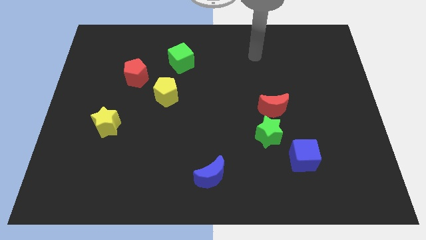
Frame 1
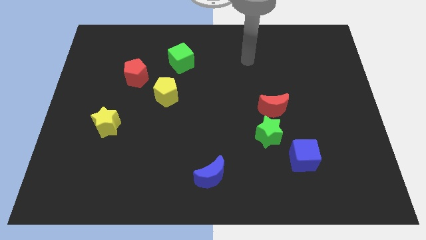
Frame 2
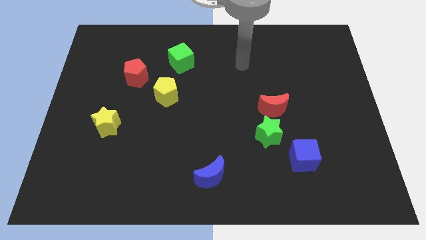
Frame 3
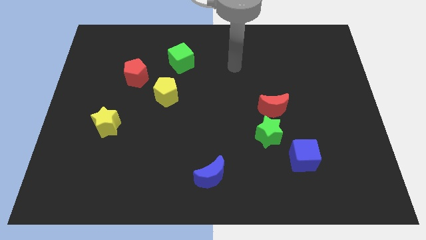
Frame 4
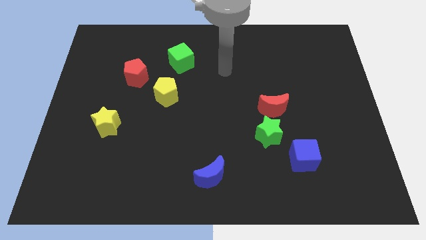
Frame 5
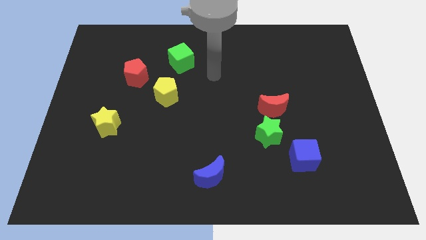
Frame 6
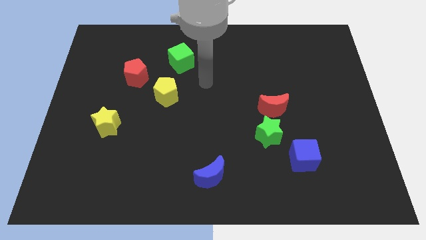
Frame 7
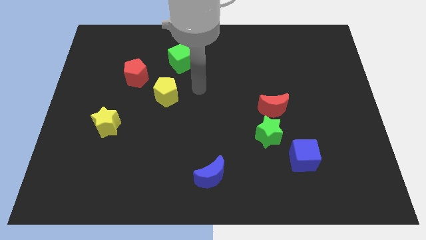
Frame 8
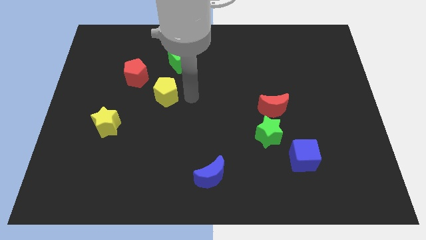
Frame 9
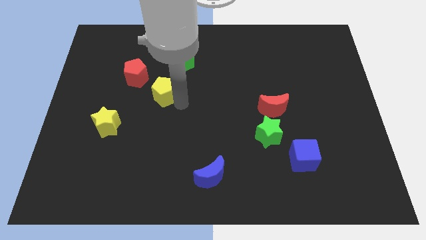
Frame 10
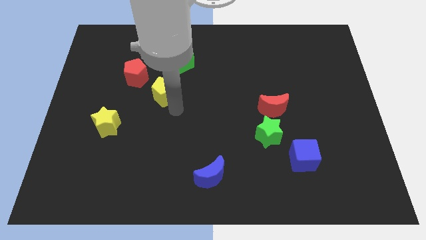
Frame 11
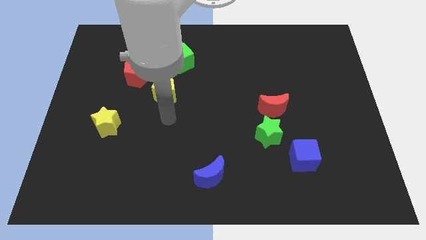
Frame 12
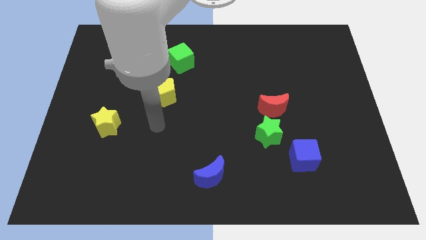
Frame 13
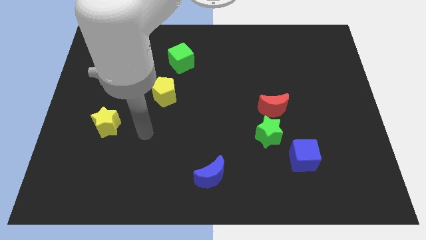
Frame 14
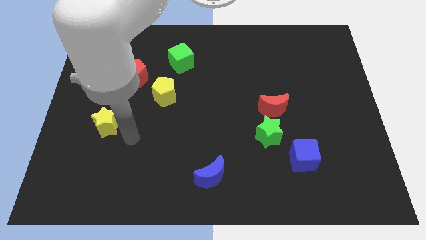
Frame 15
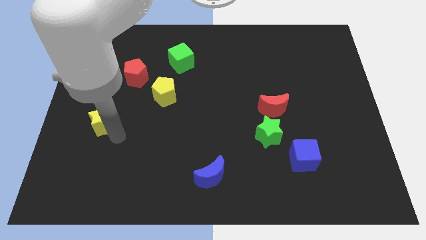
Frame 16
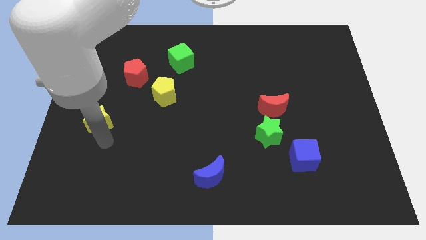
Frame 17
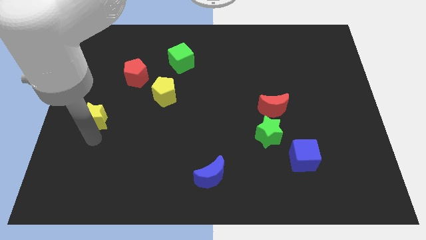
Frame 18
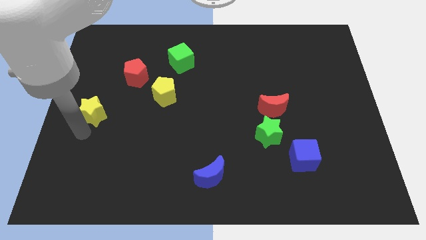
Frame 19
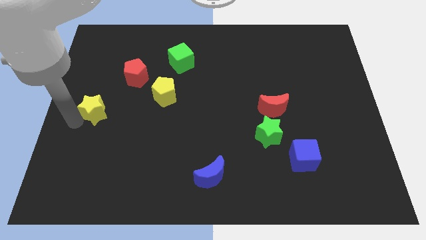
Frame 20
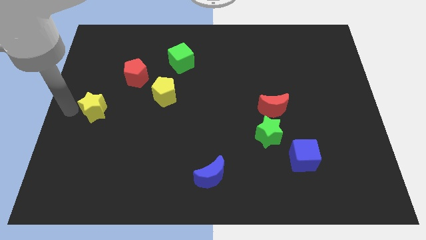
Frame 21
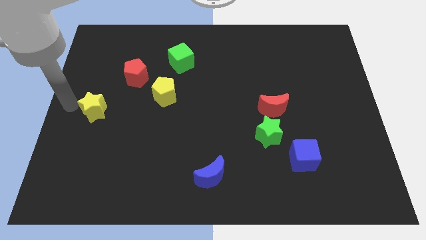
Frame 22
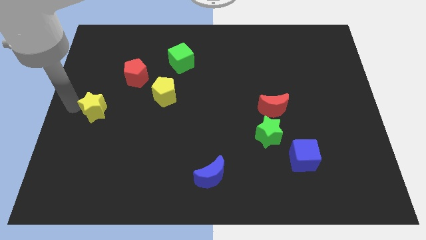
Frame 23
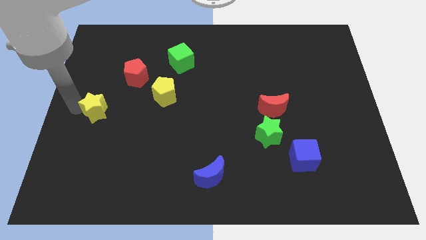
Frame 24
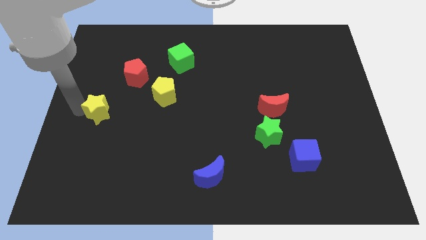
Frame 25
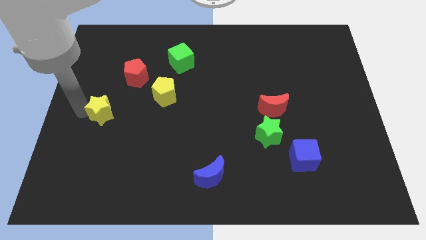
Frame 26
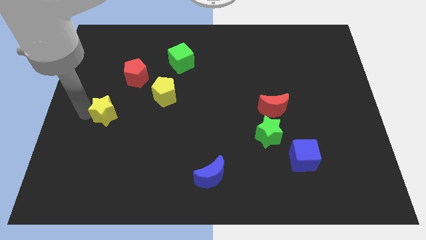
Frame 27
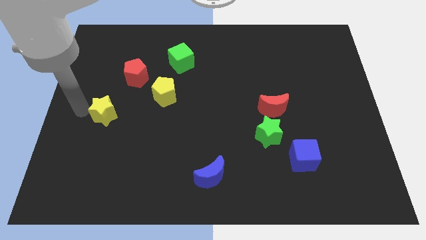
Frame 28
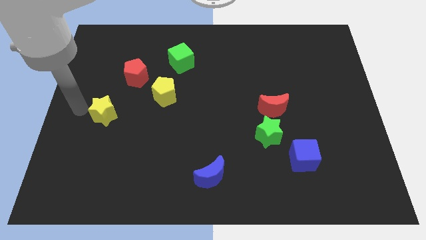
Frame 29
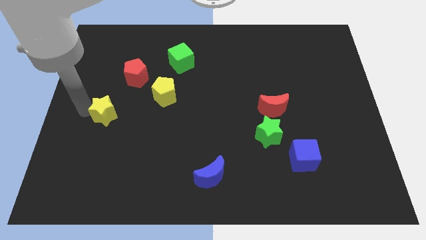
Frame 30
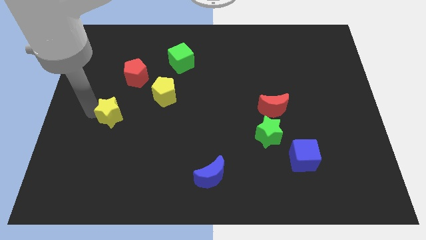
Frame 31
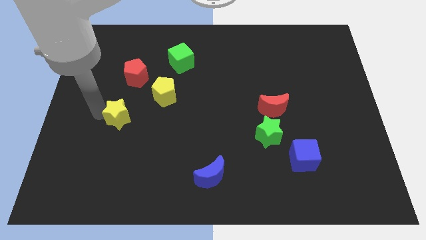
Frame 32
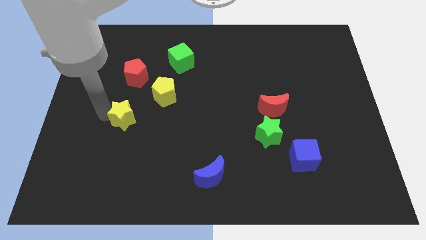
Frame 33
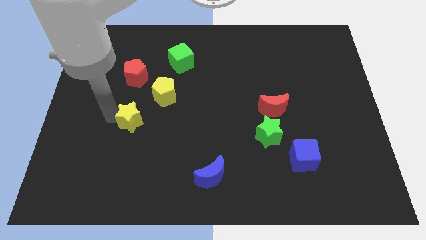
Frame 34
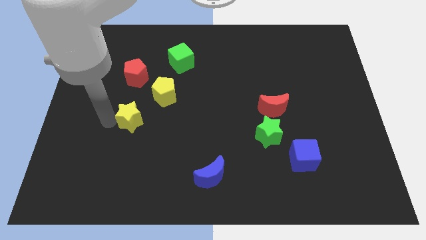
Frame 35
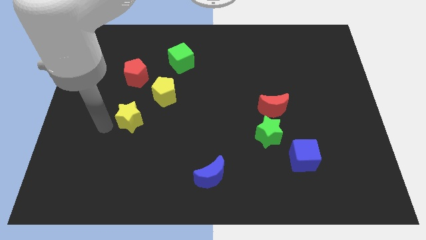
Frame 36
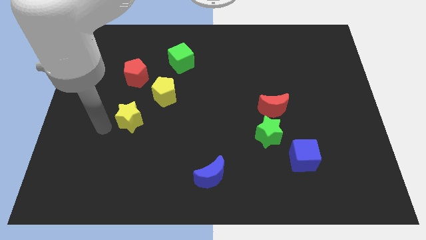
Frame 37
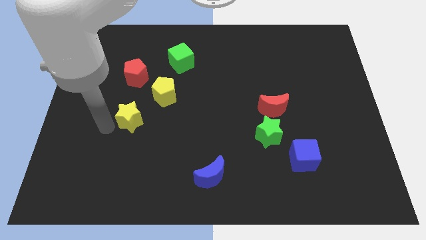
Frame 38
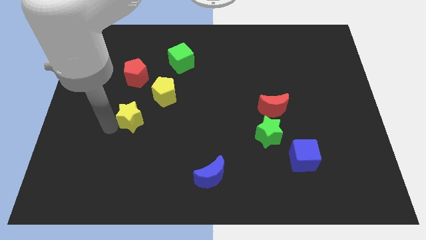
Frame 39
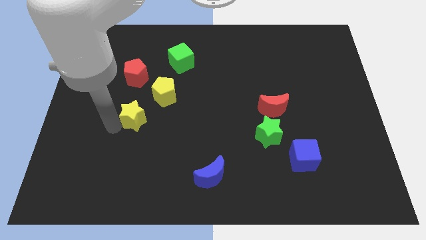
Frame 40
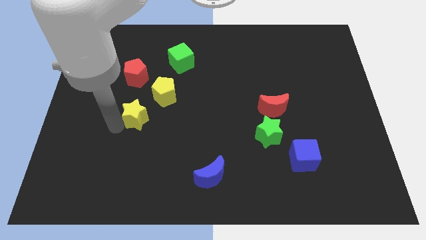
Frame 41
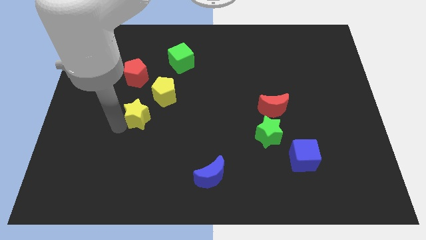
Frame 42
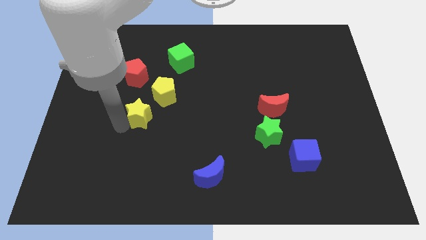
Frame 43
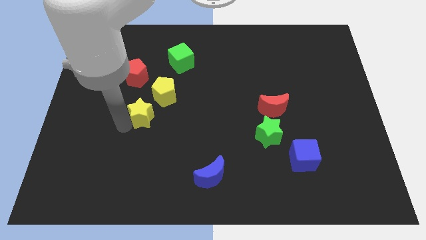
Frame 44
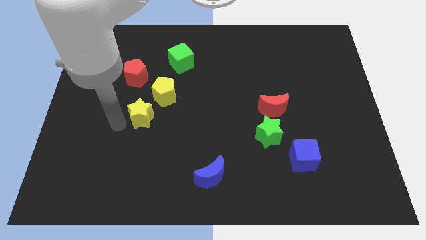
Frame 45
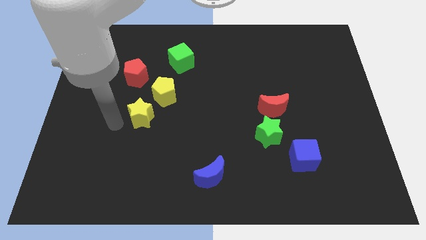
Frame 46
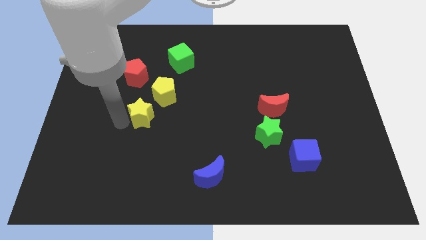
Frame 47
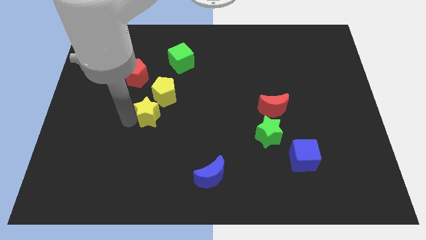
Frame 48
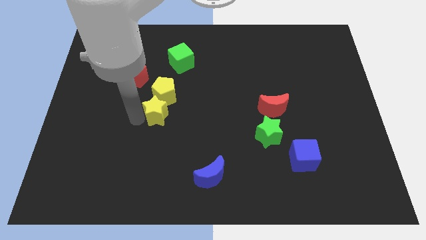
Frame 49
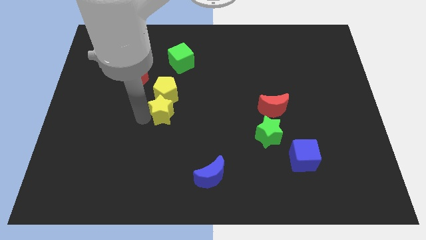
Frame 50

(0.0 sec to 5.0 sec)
push the yellow star to the middle of the board

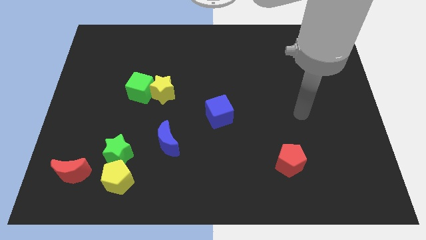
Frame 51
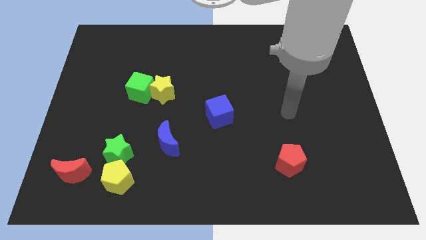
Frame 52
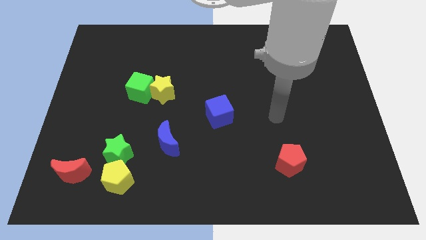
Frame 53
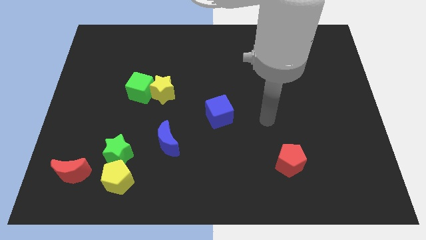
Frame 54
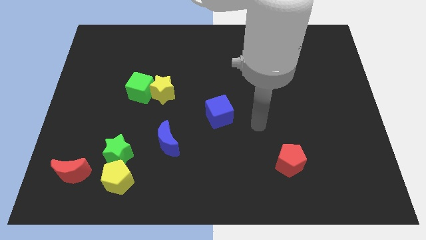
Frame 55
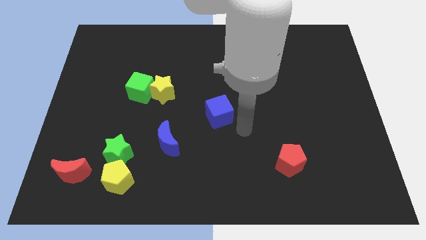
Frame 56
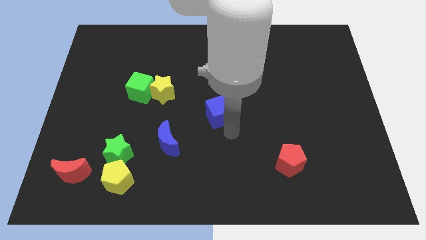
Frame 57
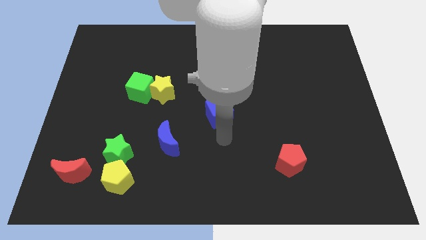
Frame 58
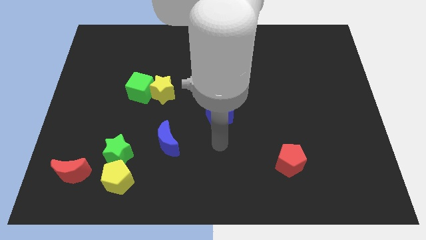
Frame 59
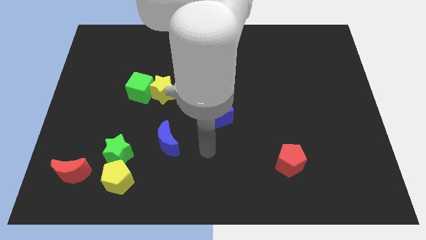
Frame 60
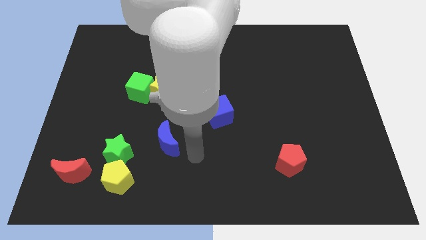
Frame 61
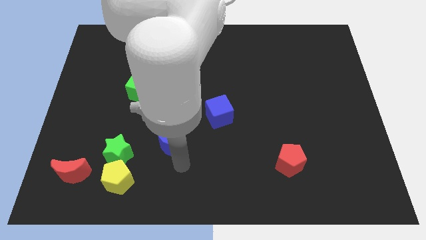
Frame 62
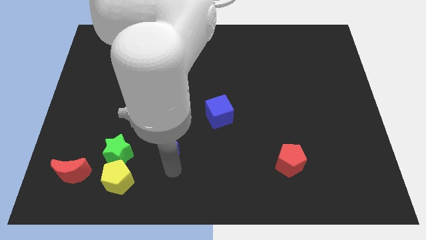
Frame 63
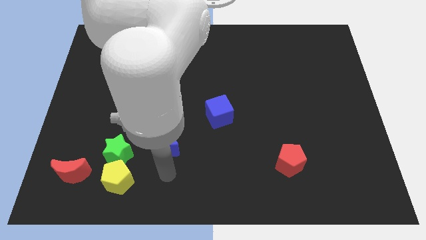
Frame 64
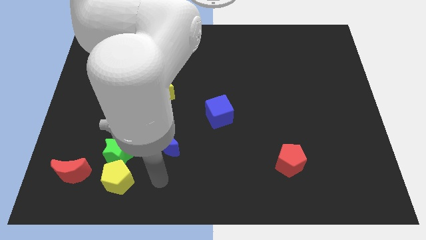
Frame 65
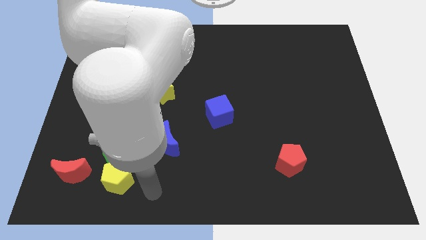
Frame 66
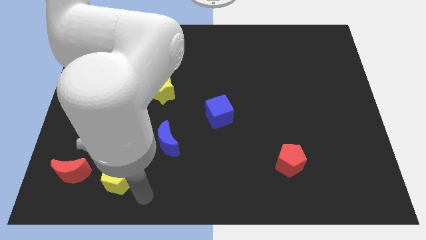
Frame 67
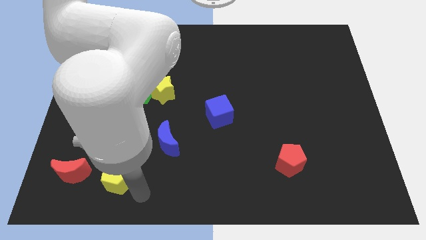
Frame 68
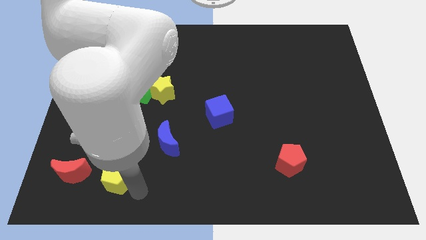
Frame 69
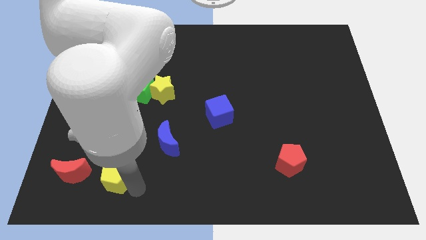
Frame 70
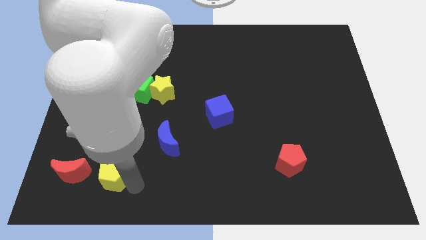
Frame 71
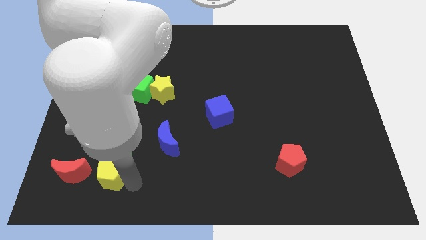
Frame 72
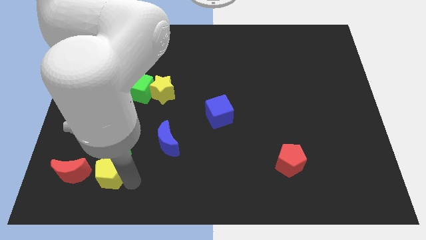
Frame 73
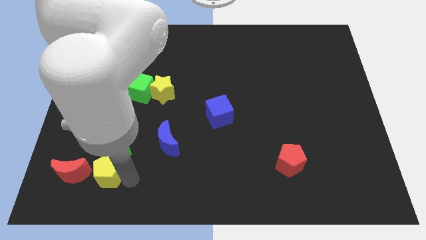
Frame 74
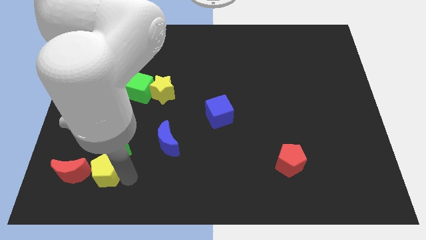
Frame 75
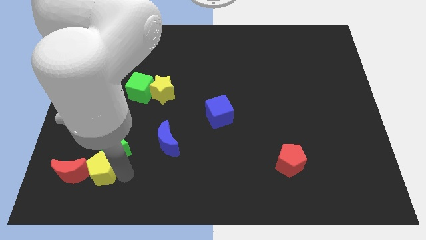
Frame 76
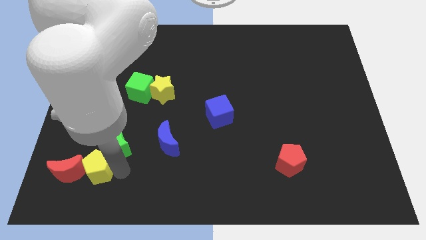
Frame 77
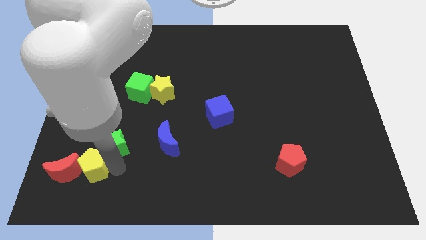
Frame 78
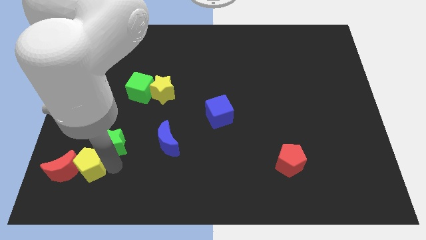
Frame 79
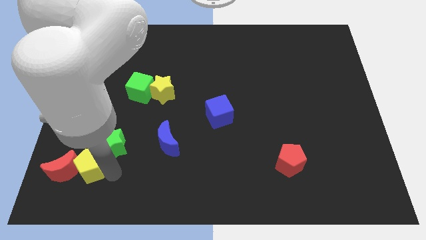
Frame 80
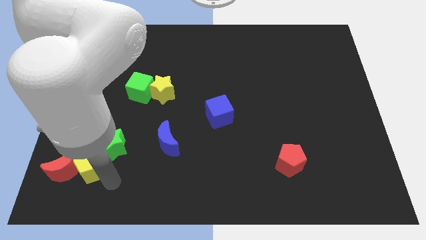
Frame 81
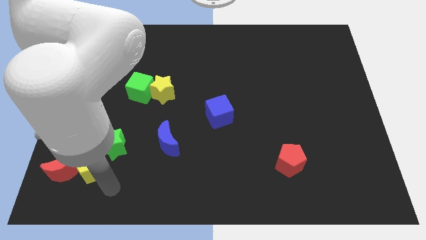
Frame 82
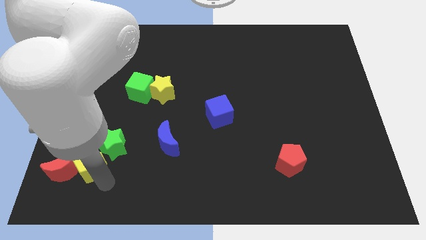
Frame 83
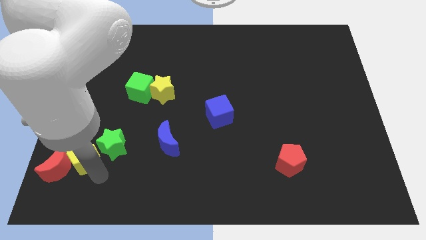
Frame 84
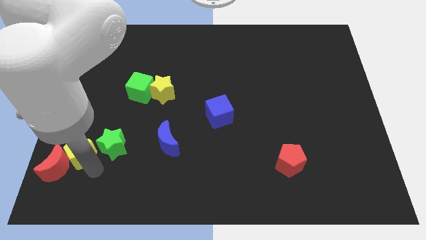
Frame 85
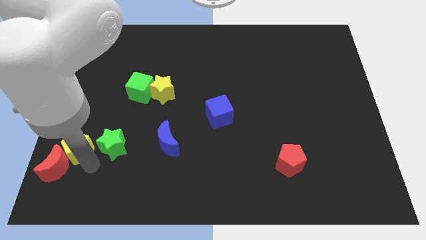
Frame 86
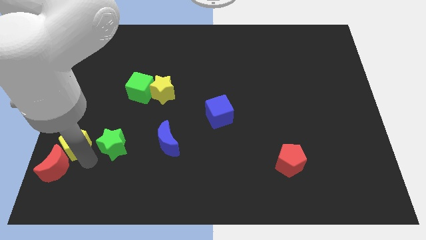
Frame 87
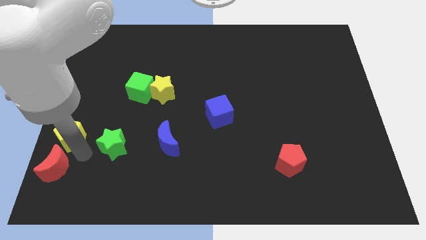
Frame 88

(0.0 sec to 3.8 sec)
put the yellow pentagon to the left side of the board
